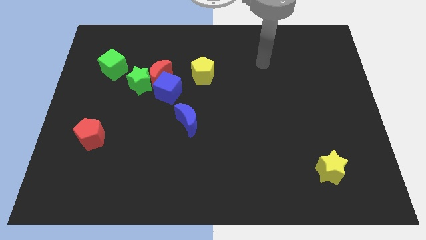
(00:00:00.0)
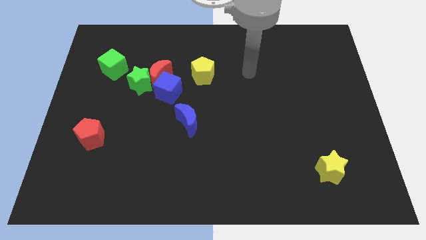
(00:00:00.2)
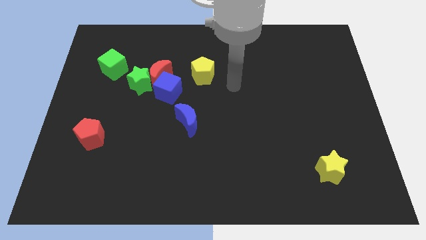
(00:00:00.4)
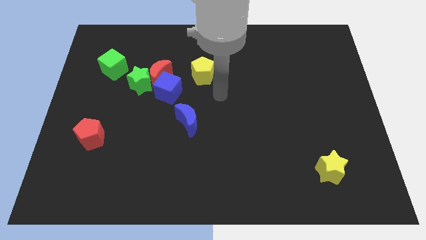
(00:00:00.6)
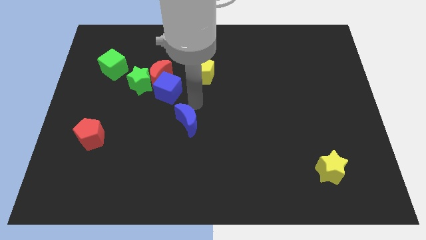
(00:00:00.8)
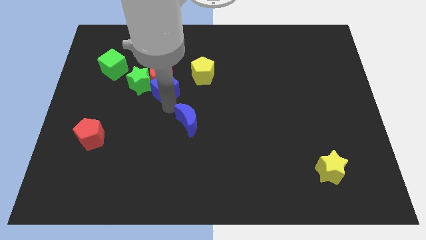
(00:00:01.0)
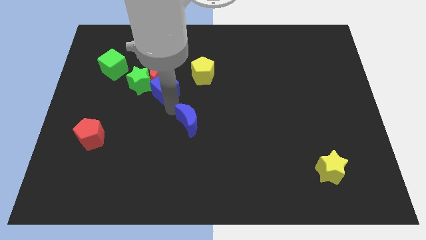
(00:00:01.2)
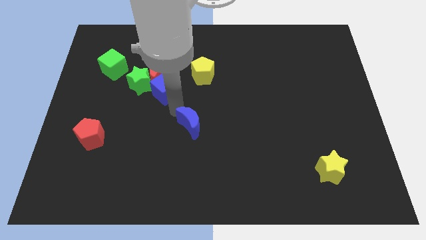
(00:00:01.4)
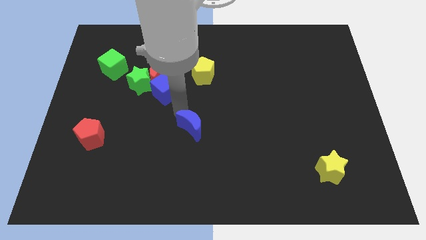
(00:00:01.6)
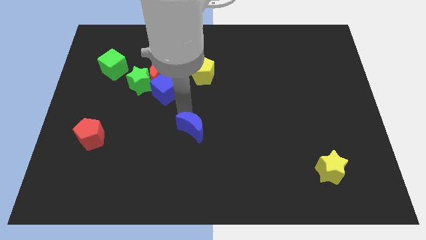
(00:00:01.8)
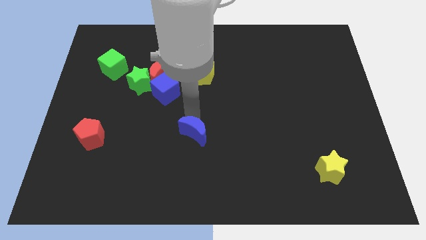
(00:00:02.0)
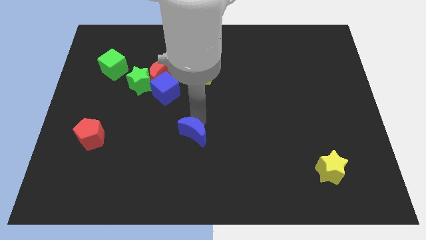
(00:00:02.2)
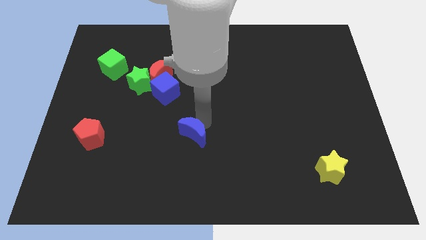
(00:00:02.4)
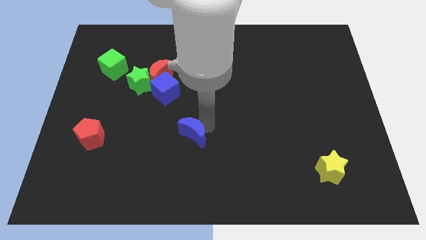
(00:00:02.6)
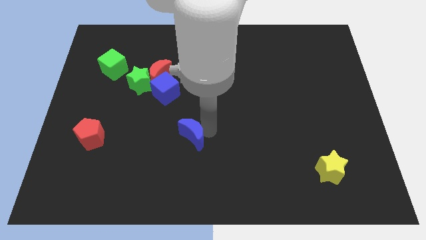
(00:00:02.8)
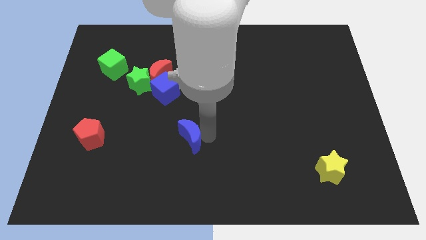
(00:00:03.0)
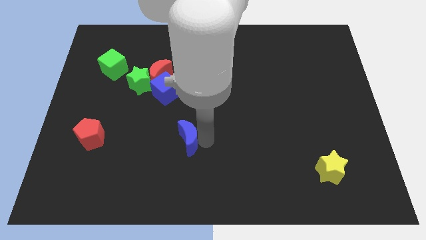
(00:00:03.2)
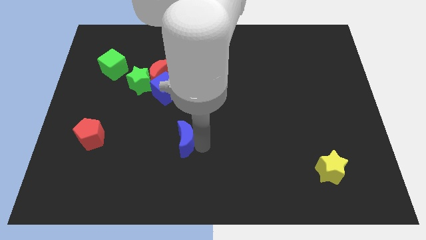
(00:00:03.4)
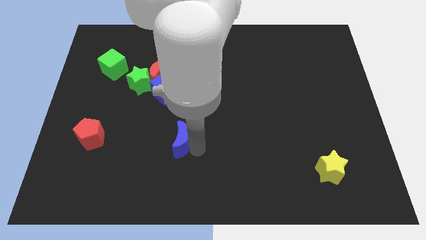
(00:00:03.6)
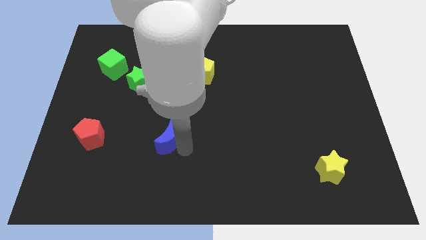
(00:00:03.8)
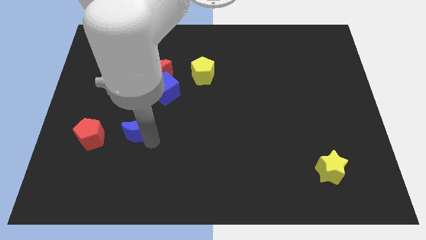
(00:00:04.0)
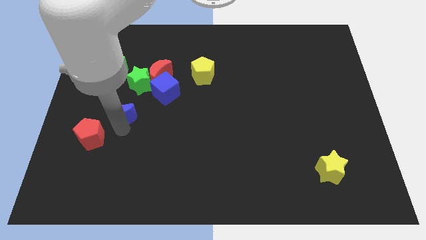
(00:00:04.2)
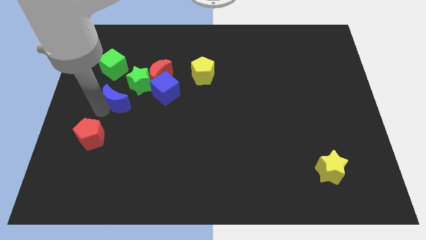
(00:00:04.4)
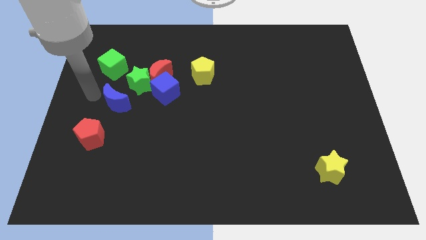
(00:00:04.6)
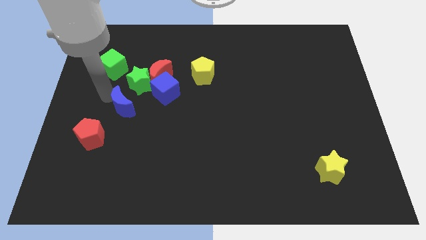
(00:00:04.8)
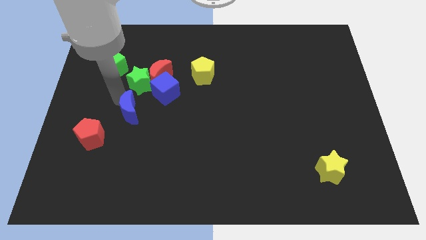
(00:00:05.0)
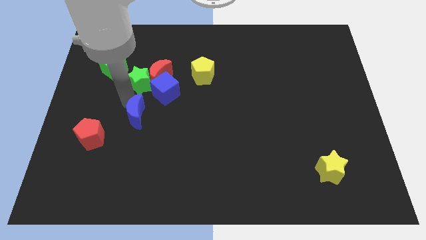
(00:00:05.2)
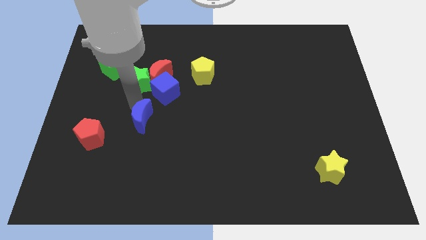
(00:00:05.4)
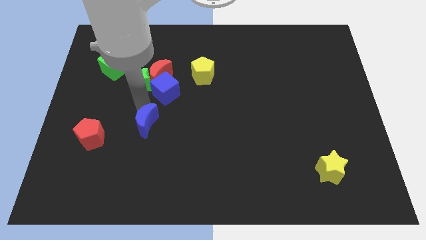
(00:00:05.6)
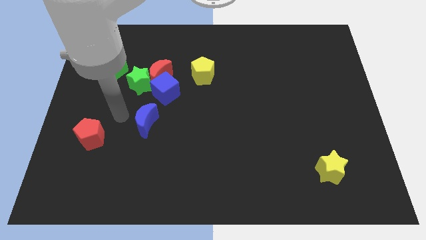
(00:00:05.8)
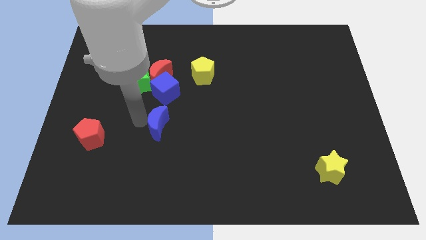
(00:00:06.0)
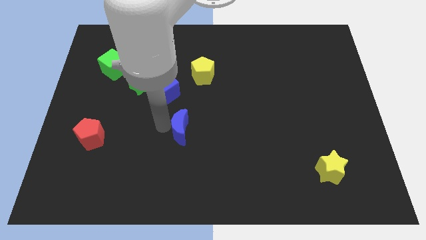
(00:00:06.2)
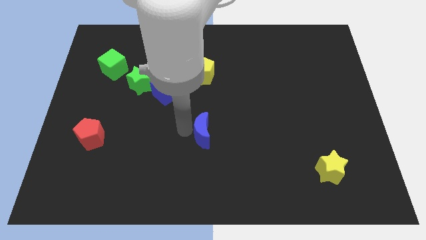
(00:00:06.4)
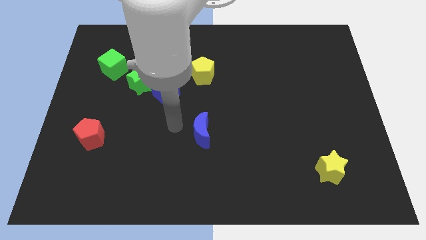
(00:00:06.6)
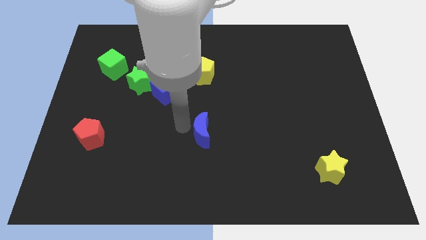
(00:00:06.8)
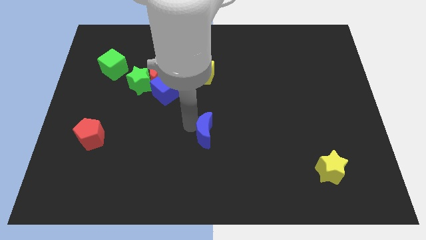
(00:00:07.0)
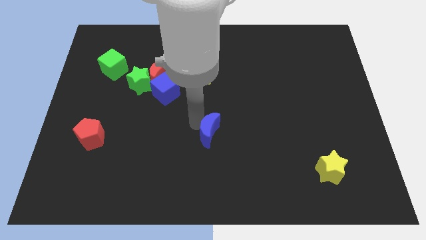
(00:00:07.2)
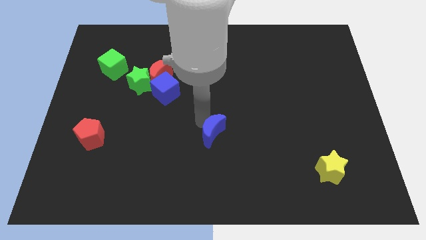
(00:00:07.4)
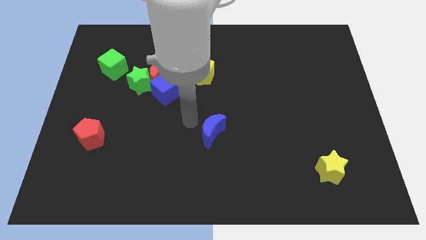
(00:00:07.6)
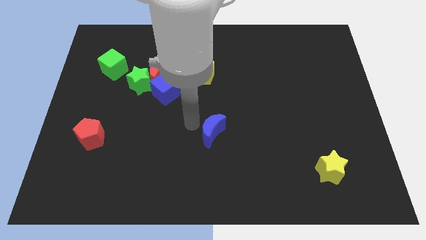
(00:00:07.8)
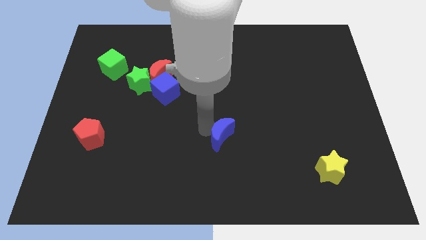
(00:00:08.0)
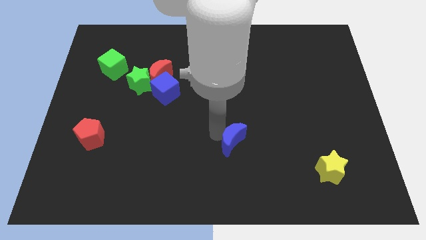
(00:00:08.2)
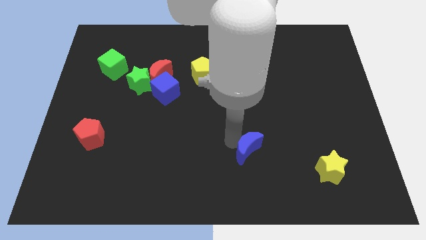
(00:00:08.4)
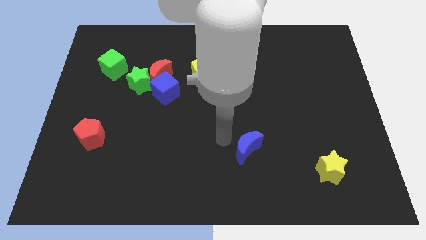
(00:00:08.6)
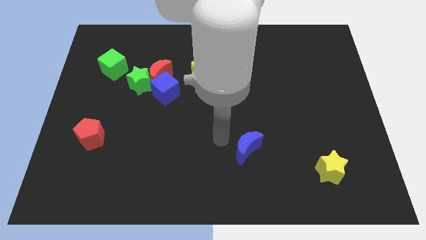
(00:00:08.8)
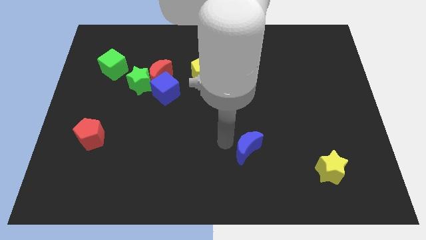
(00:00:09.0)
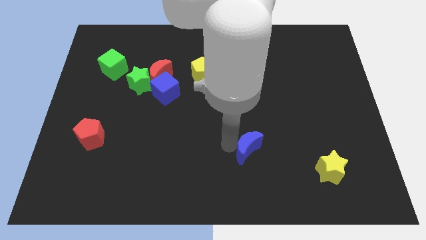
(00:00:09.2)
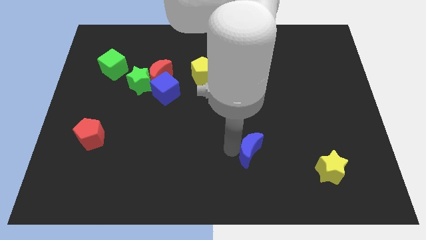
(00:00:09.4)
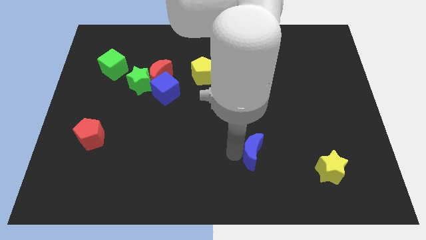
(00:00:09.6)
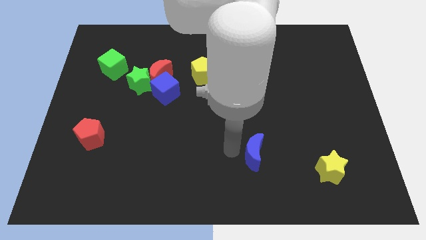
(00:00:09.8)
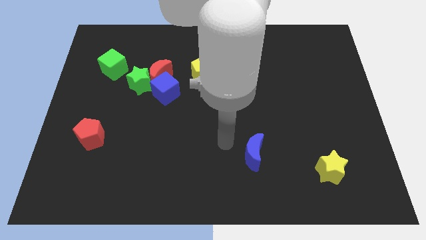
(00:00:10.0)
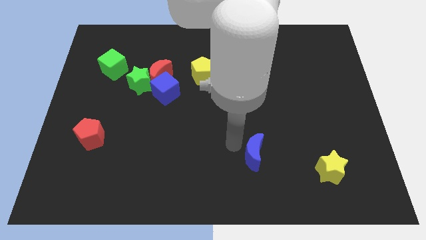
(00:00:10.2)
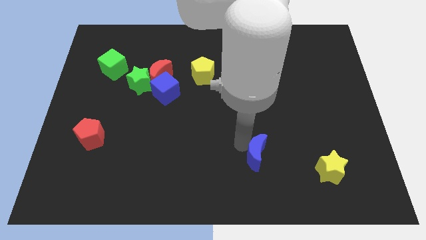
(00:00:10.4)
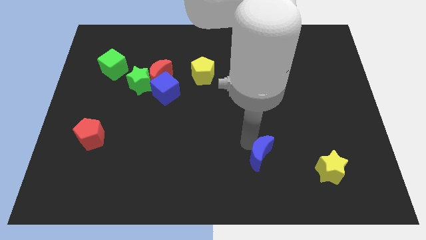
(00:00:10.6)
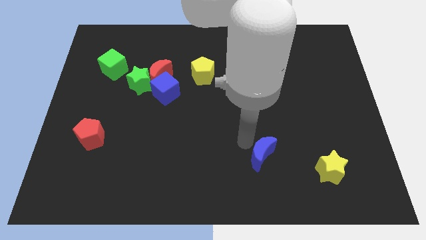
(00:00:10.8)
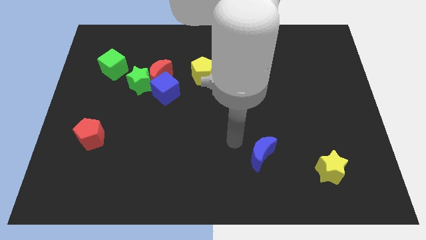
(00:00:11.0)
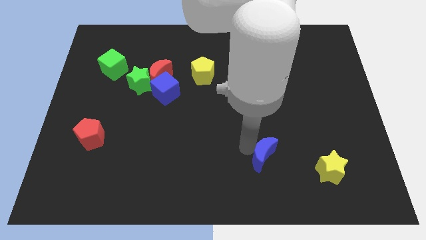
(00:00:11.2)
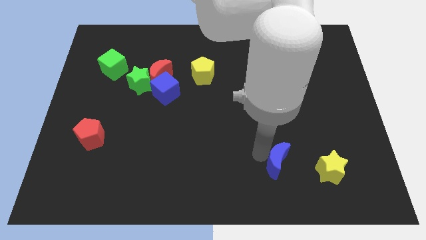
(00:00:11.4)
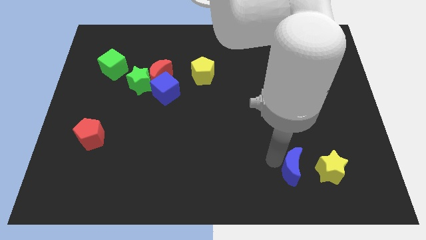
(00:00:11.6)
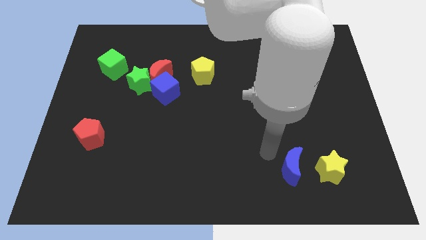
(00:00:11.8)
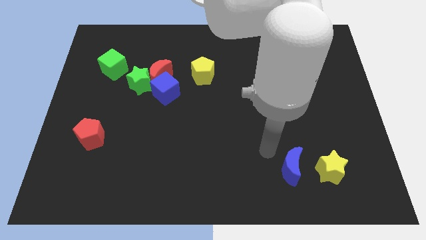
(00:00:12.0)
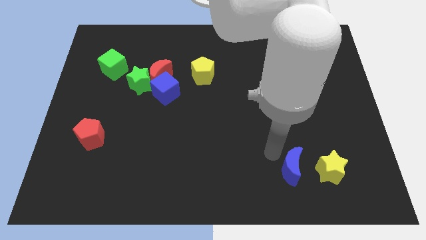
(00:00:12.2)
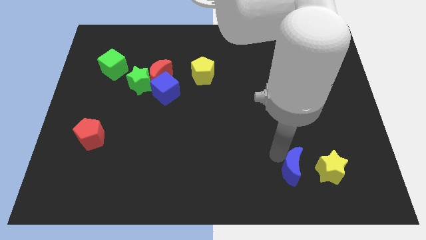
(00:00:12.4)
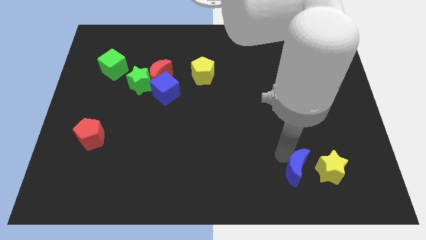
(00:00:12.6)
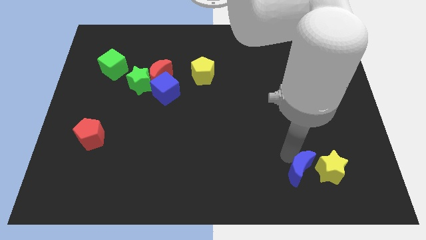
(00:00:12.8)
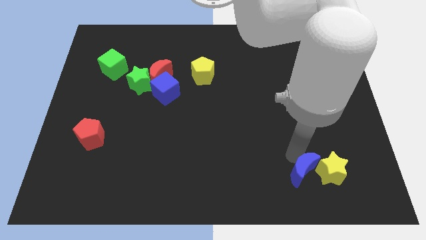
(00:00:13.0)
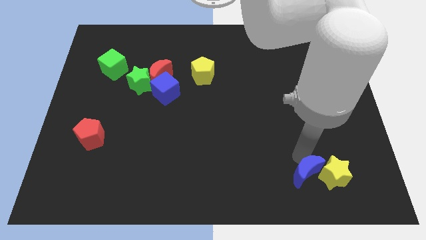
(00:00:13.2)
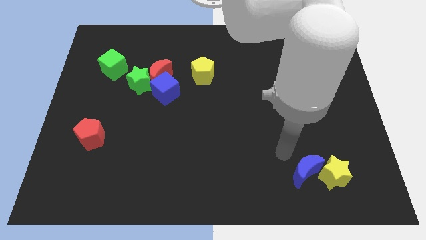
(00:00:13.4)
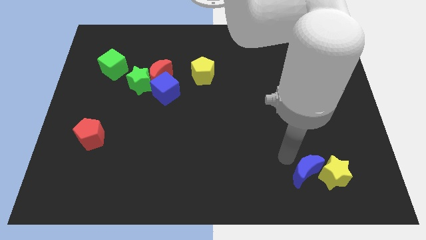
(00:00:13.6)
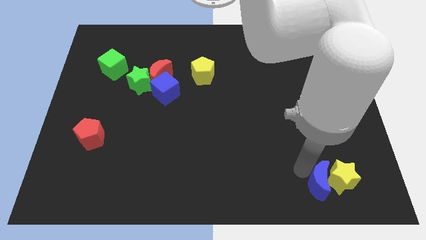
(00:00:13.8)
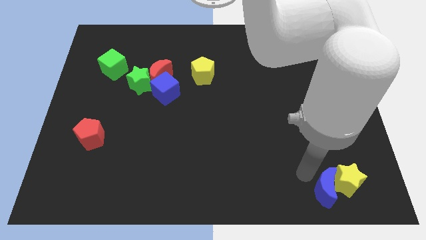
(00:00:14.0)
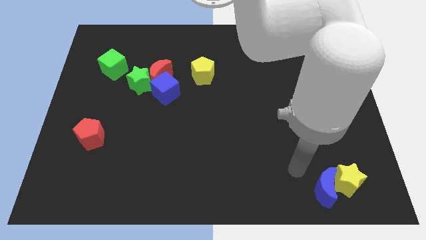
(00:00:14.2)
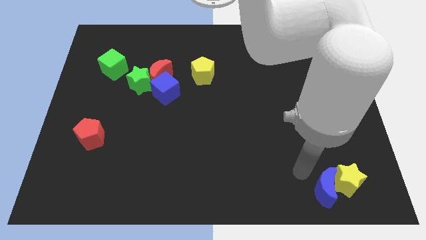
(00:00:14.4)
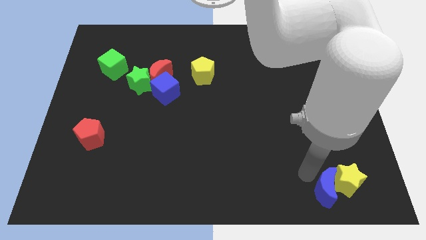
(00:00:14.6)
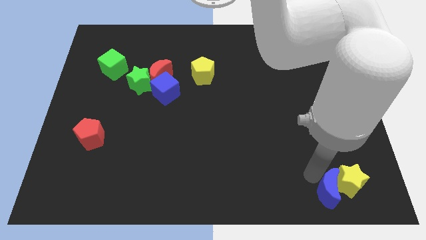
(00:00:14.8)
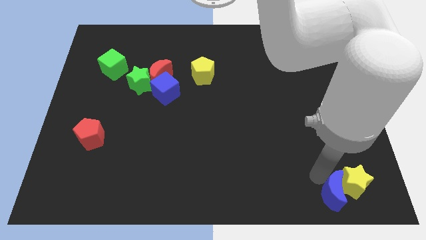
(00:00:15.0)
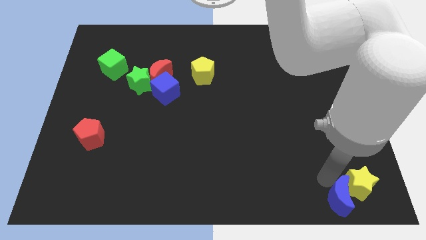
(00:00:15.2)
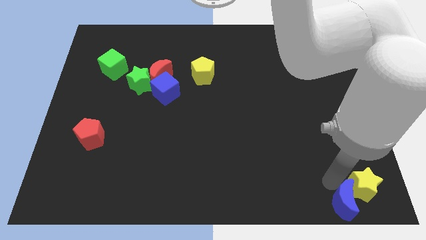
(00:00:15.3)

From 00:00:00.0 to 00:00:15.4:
move the blue moon to the bottom right corner
